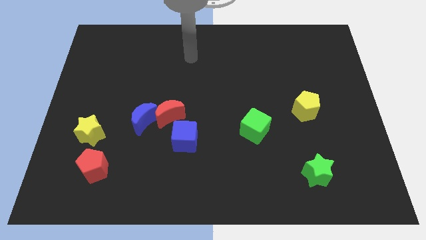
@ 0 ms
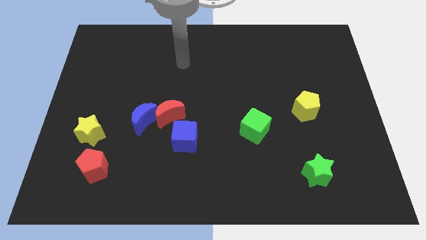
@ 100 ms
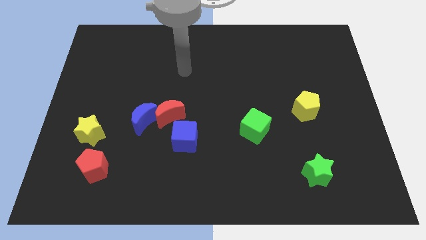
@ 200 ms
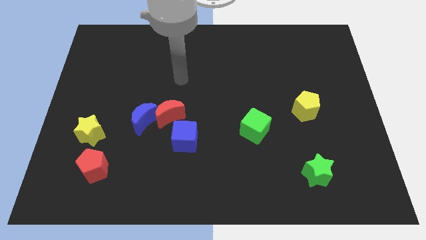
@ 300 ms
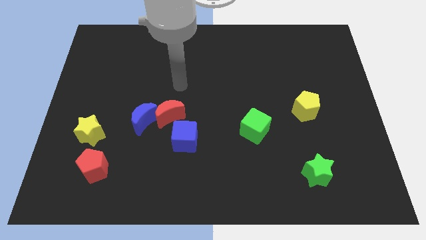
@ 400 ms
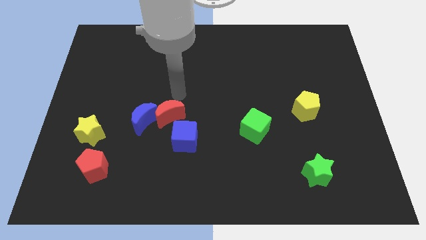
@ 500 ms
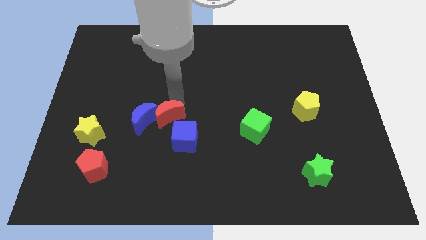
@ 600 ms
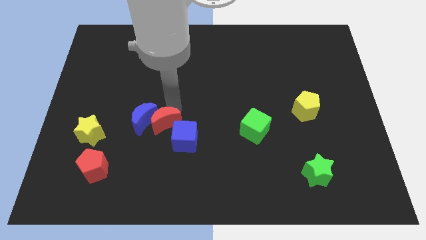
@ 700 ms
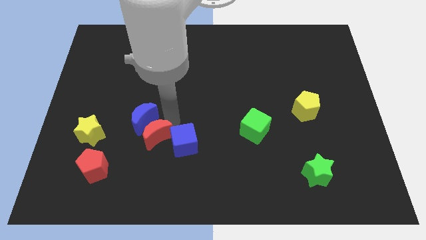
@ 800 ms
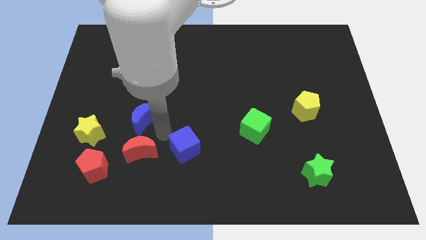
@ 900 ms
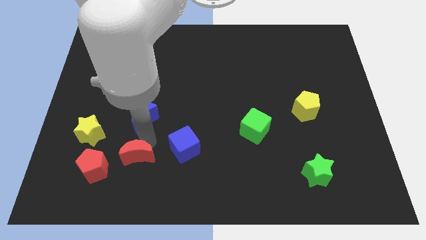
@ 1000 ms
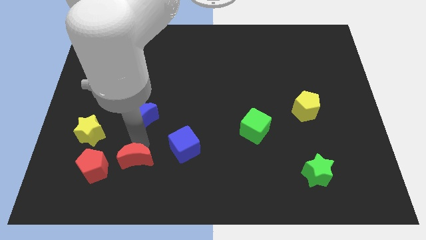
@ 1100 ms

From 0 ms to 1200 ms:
separate the blue moon from the red moon

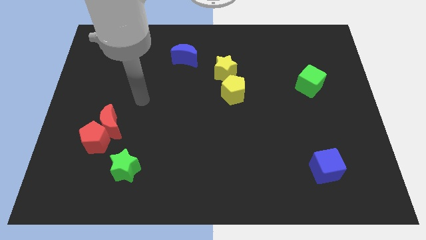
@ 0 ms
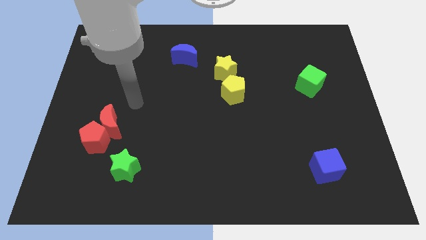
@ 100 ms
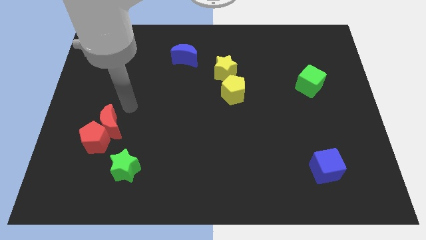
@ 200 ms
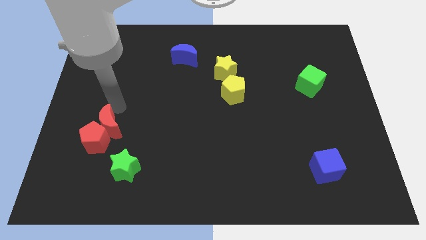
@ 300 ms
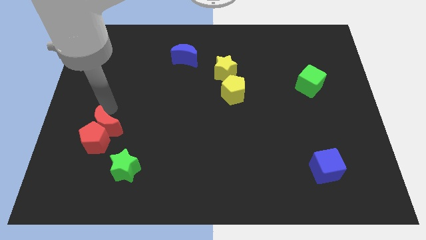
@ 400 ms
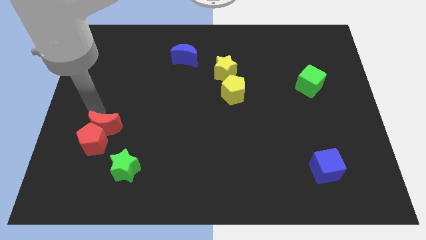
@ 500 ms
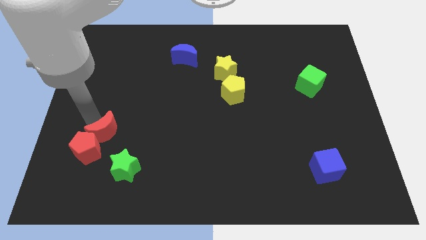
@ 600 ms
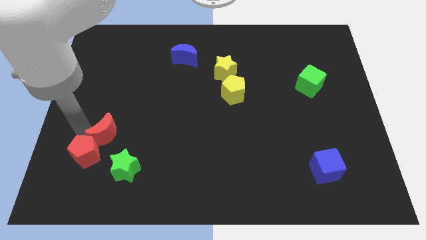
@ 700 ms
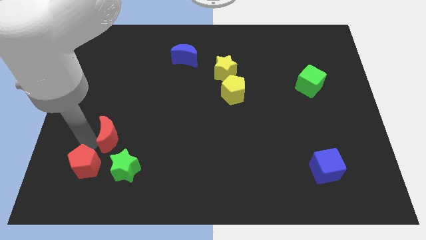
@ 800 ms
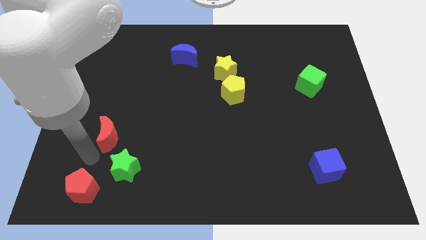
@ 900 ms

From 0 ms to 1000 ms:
pull the red moon apart from the red pentagon

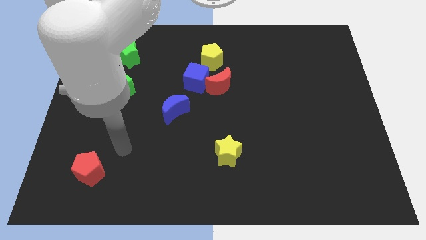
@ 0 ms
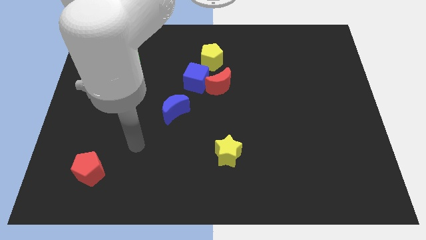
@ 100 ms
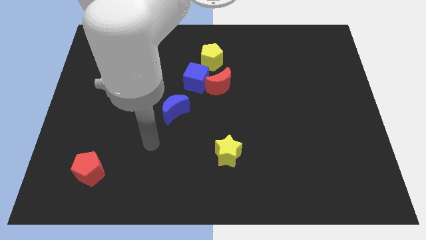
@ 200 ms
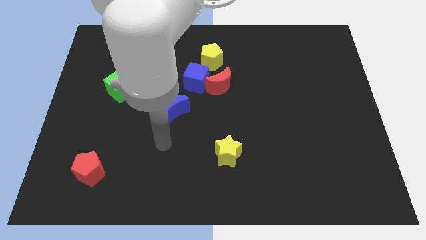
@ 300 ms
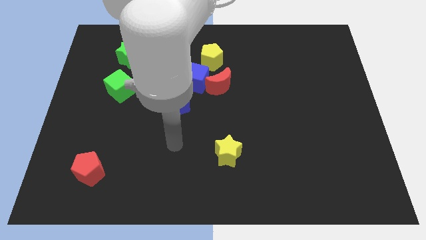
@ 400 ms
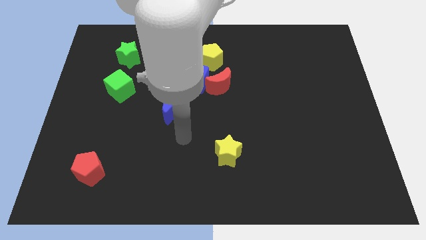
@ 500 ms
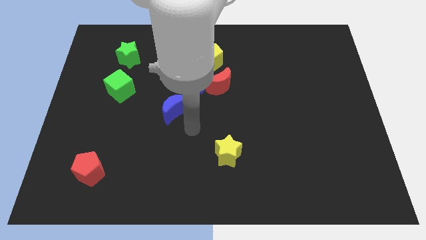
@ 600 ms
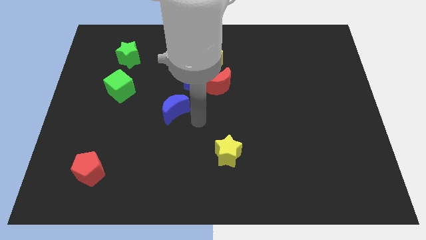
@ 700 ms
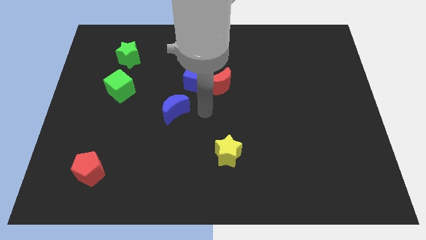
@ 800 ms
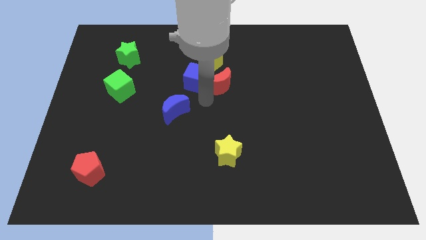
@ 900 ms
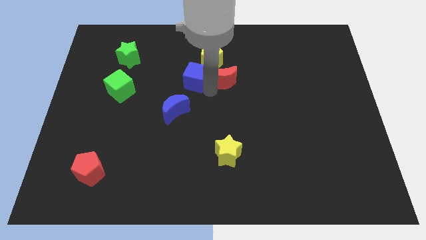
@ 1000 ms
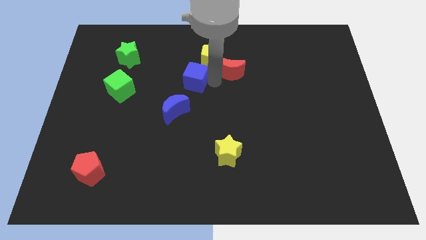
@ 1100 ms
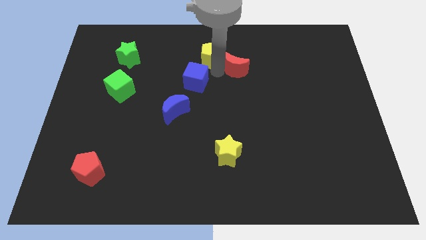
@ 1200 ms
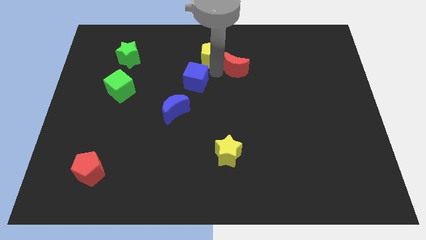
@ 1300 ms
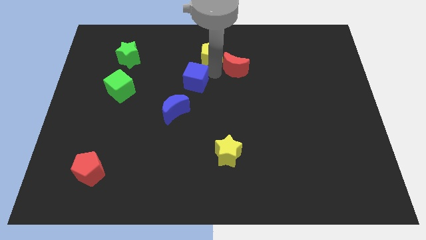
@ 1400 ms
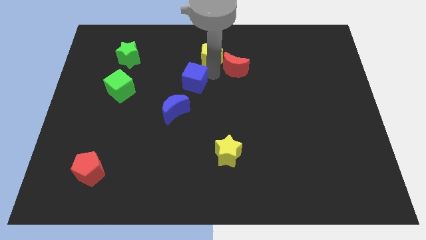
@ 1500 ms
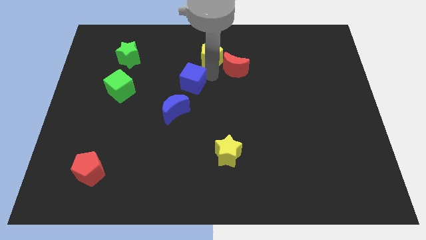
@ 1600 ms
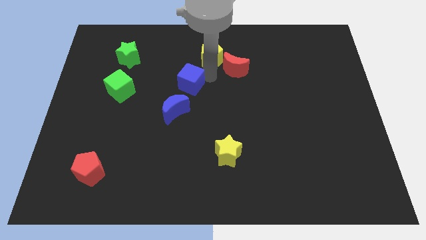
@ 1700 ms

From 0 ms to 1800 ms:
move the blue cube away from the red moon and yellow pentagon

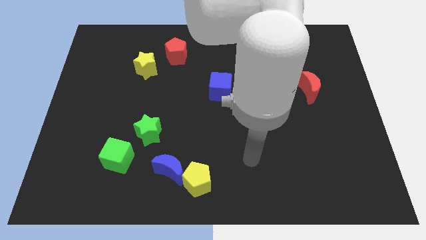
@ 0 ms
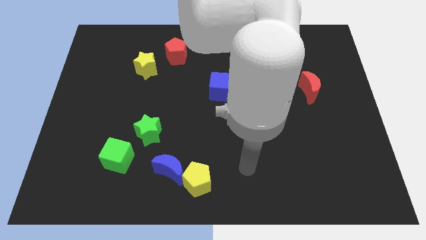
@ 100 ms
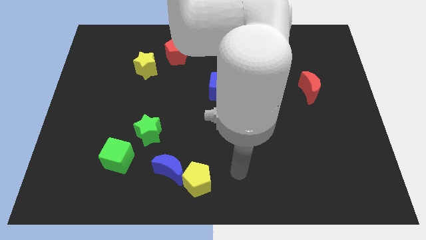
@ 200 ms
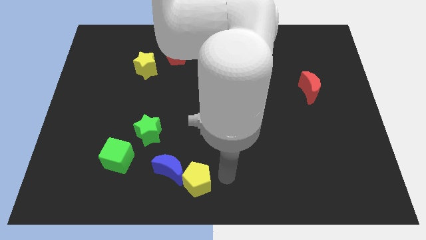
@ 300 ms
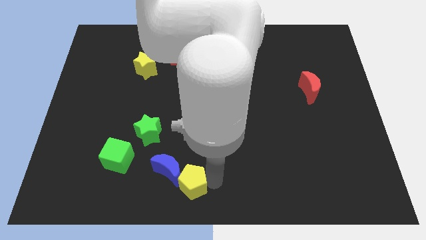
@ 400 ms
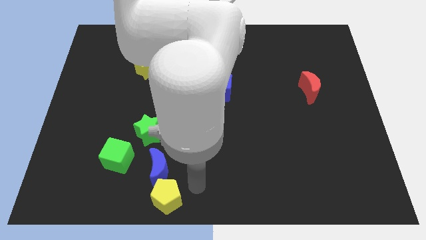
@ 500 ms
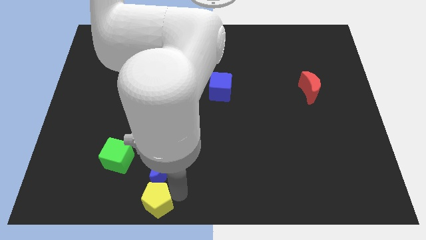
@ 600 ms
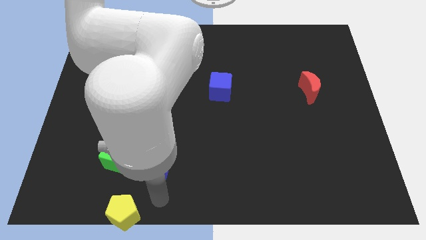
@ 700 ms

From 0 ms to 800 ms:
move the blue moon away from the yellow pentagon

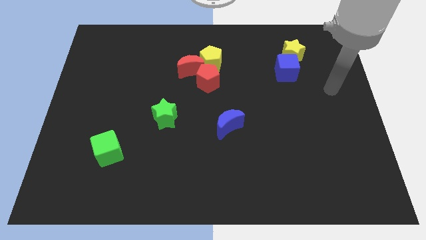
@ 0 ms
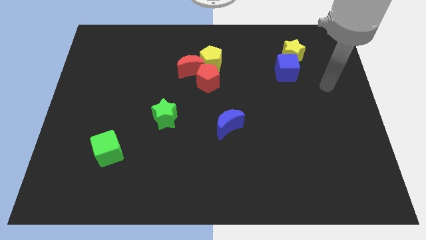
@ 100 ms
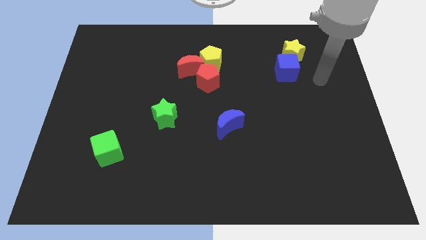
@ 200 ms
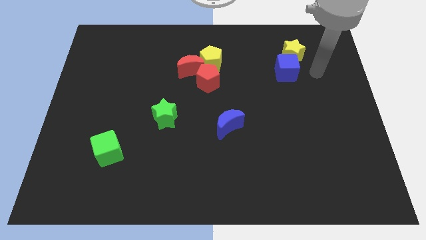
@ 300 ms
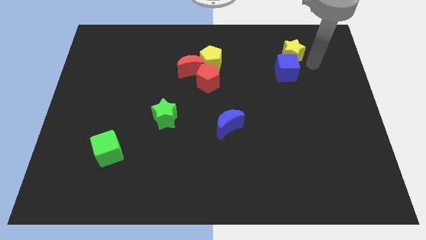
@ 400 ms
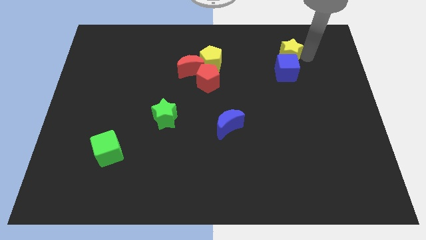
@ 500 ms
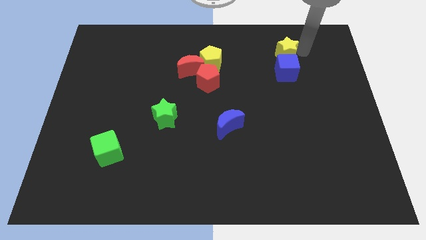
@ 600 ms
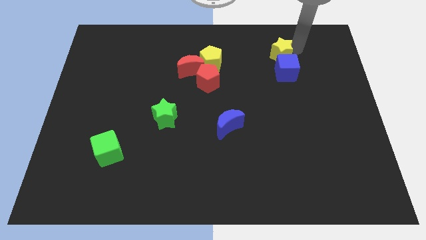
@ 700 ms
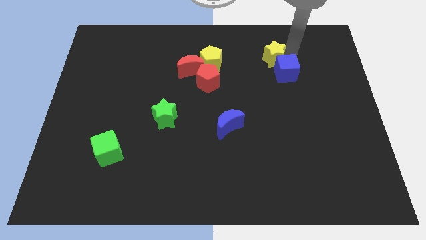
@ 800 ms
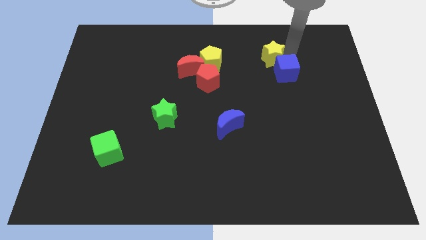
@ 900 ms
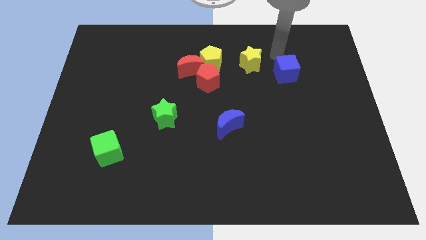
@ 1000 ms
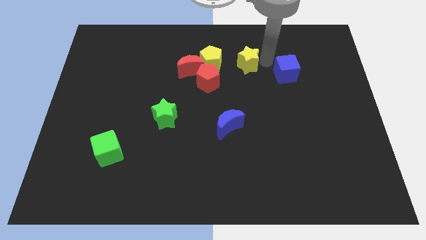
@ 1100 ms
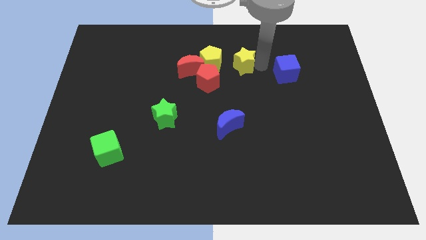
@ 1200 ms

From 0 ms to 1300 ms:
move the blue cube away from the yellow star

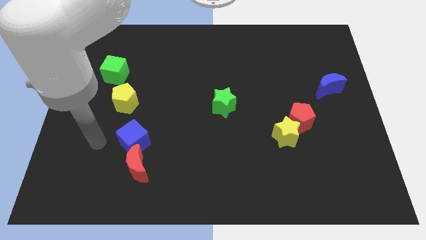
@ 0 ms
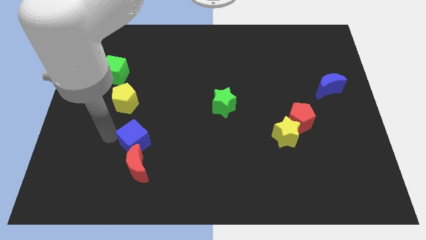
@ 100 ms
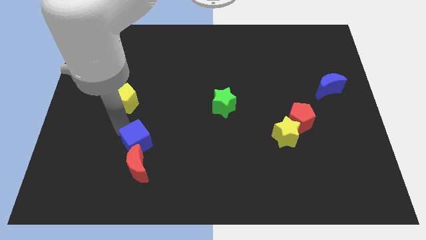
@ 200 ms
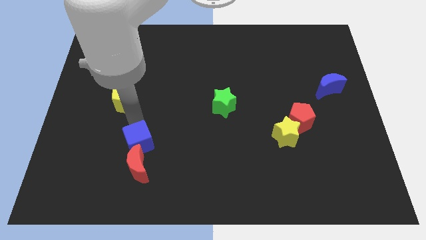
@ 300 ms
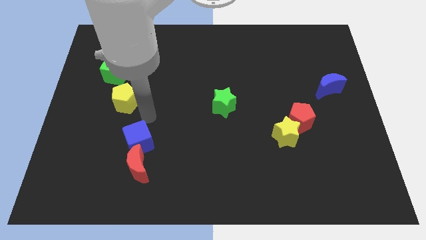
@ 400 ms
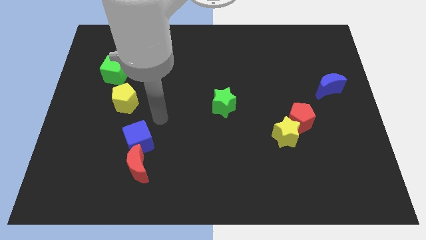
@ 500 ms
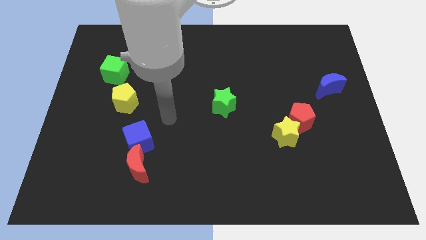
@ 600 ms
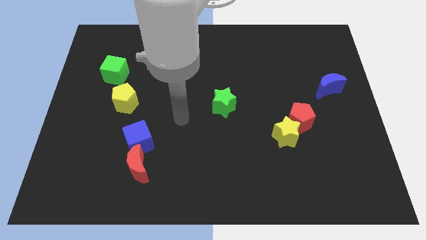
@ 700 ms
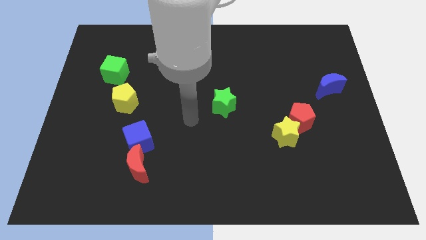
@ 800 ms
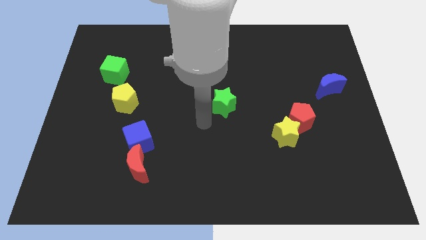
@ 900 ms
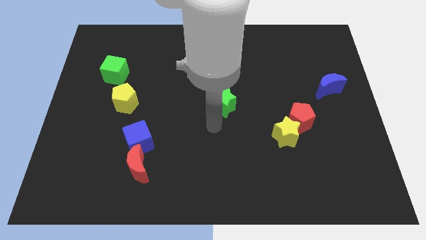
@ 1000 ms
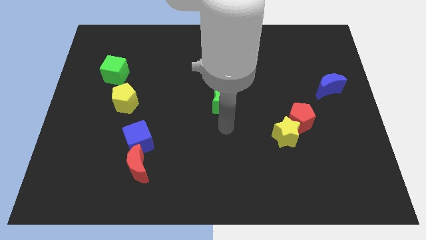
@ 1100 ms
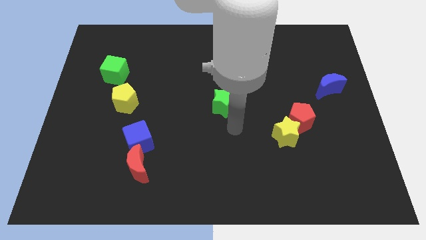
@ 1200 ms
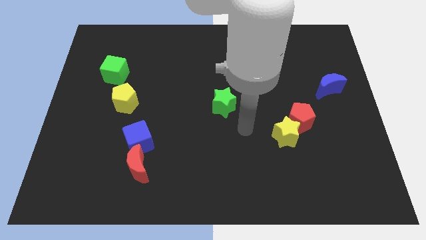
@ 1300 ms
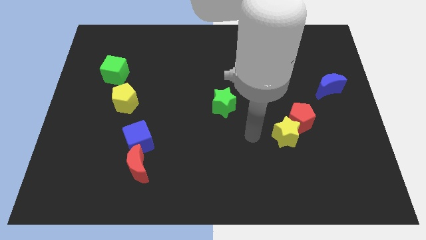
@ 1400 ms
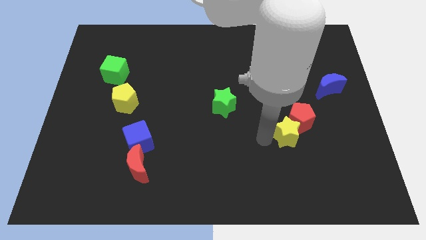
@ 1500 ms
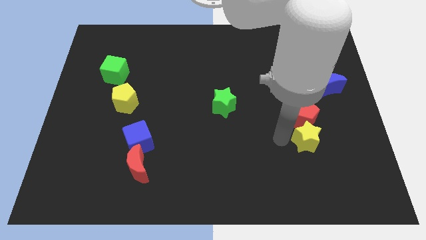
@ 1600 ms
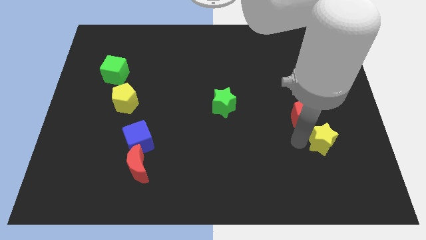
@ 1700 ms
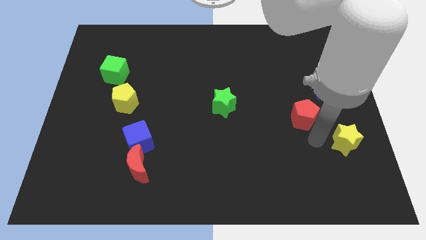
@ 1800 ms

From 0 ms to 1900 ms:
move the red pentagon away from the yellow star

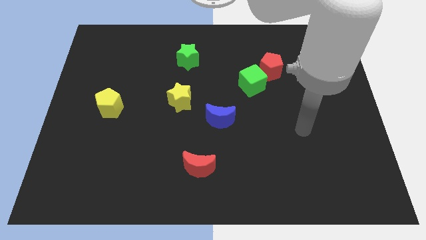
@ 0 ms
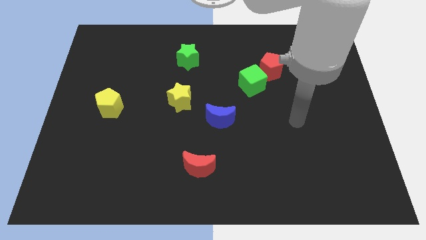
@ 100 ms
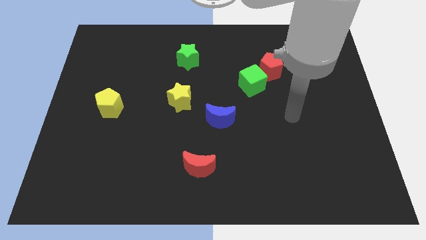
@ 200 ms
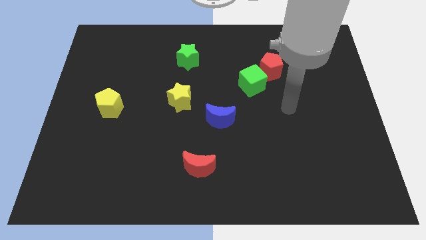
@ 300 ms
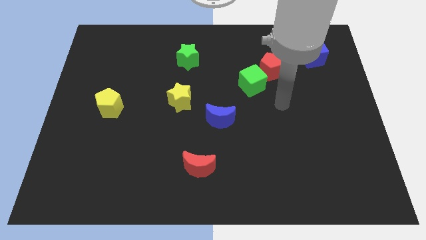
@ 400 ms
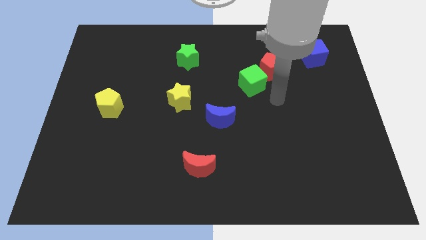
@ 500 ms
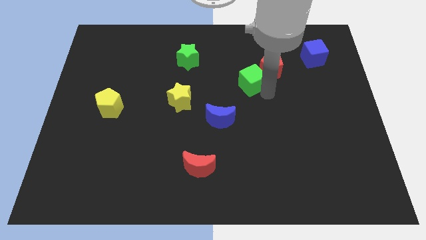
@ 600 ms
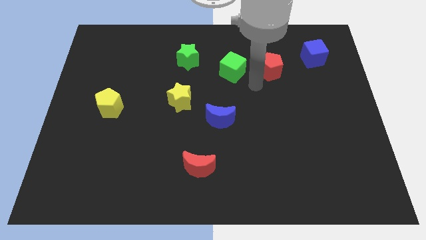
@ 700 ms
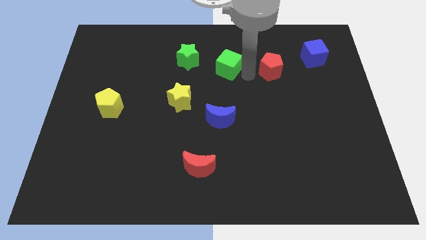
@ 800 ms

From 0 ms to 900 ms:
separate the red pentagon from the green cube

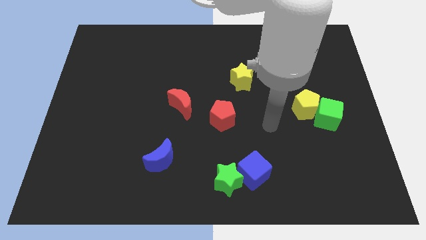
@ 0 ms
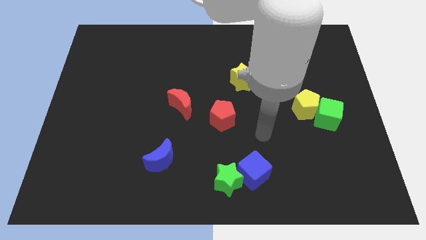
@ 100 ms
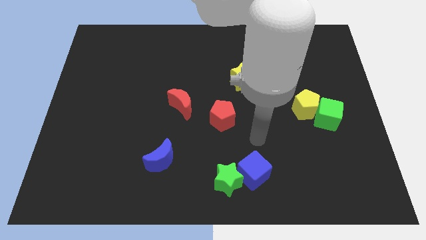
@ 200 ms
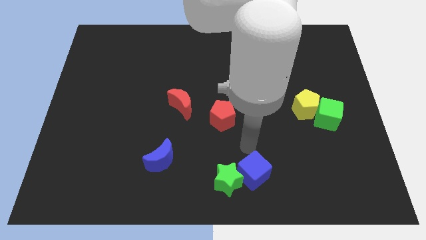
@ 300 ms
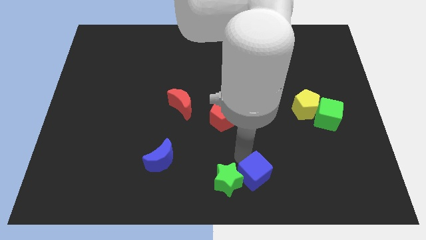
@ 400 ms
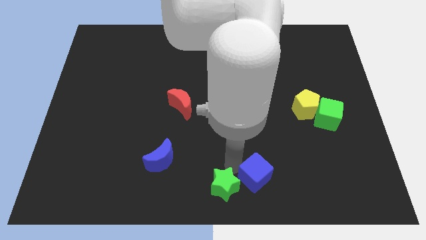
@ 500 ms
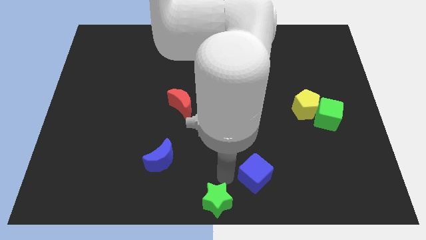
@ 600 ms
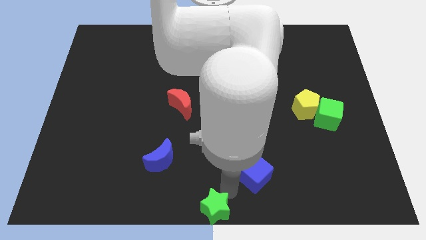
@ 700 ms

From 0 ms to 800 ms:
separate the blue cube from the green star
